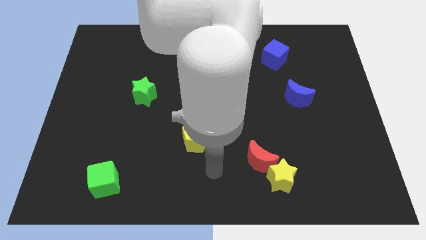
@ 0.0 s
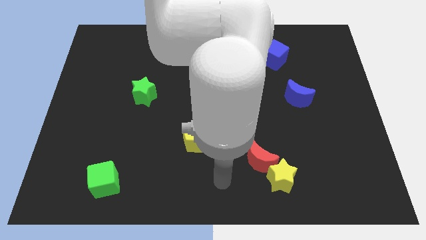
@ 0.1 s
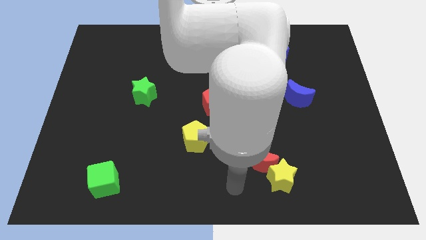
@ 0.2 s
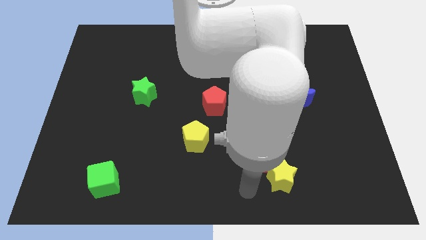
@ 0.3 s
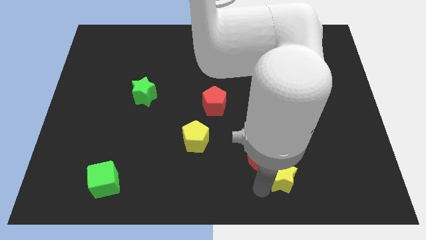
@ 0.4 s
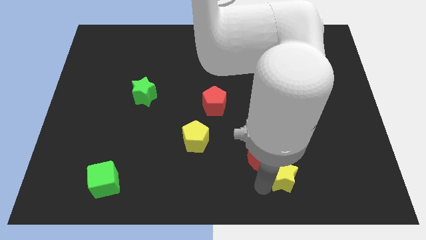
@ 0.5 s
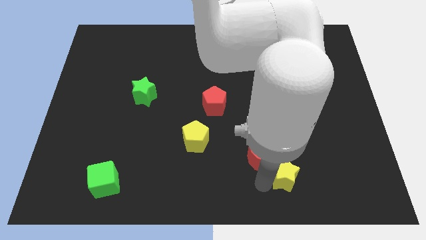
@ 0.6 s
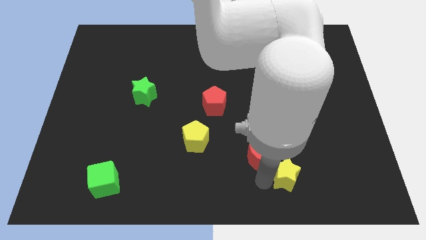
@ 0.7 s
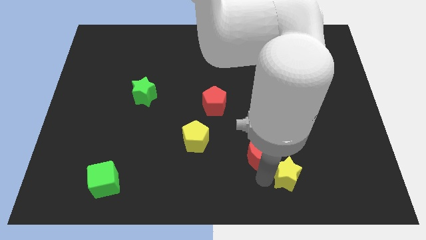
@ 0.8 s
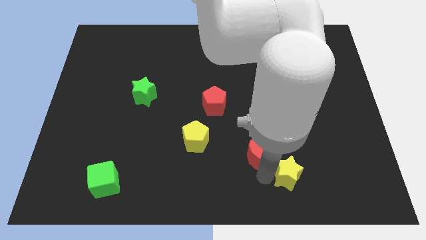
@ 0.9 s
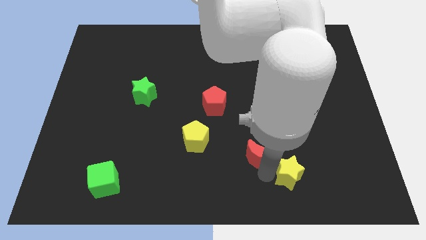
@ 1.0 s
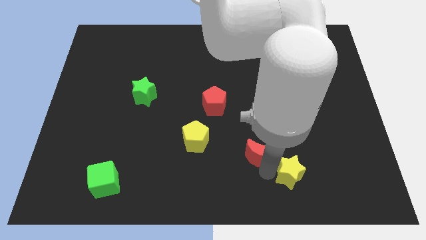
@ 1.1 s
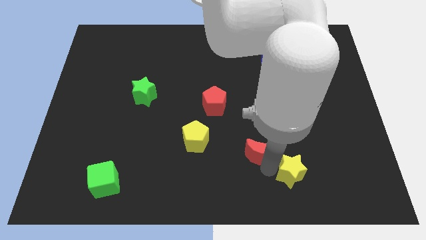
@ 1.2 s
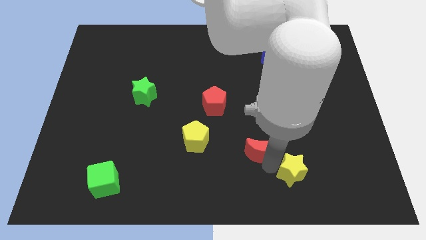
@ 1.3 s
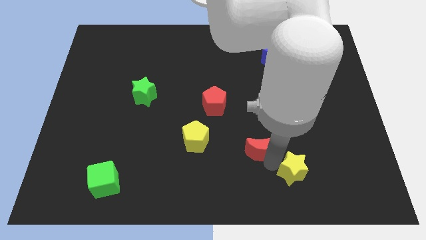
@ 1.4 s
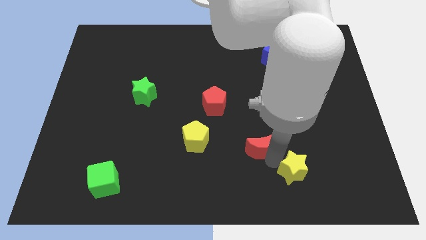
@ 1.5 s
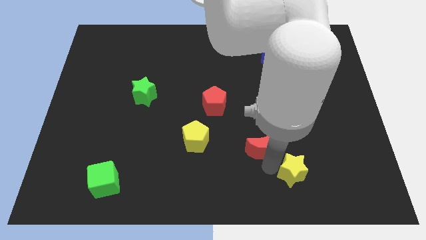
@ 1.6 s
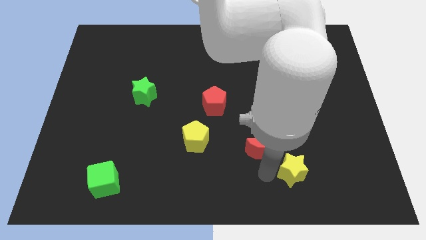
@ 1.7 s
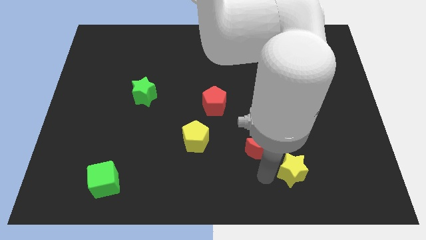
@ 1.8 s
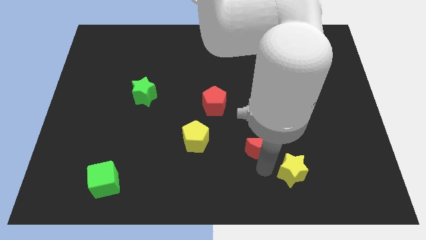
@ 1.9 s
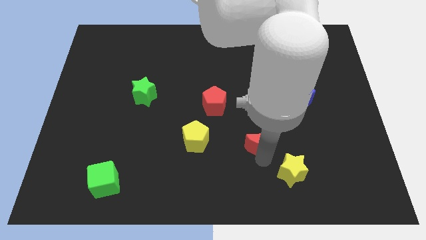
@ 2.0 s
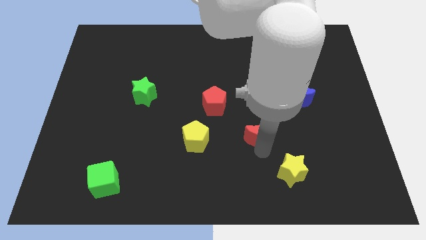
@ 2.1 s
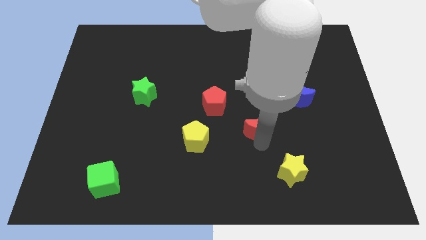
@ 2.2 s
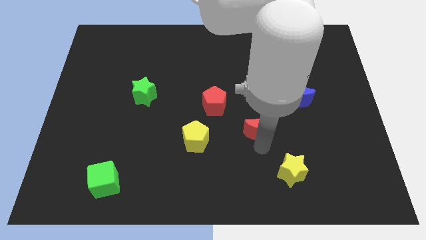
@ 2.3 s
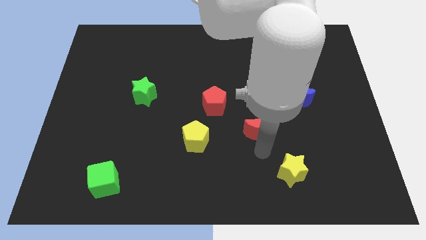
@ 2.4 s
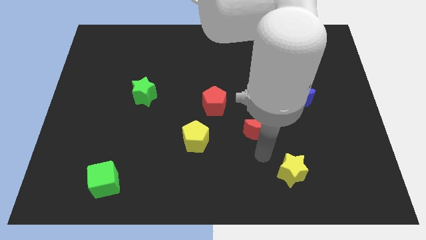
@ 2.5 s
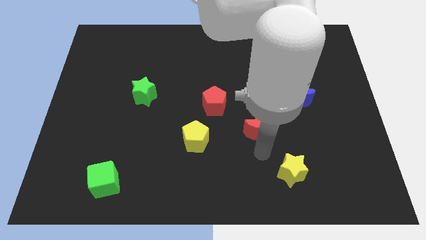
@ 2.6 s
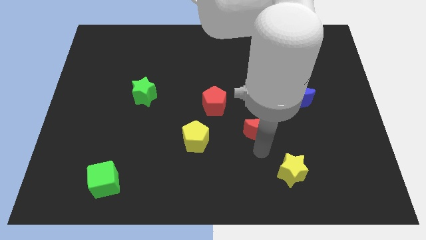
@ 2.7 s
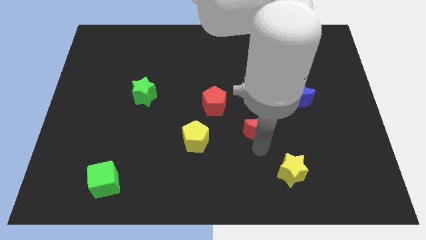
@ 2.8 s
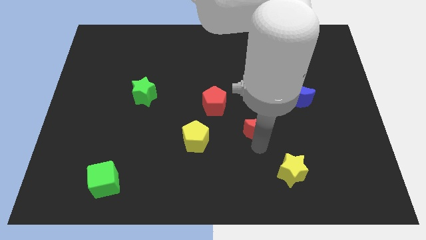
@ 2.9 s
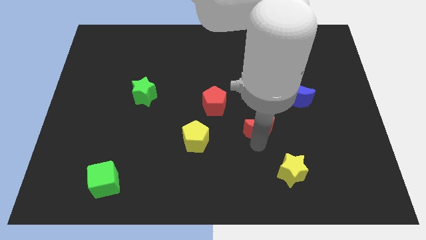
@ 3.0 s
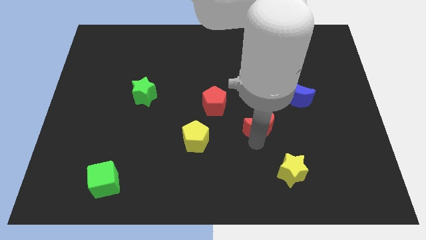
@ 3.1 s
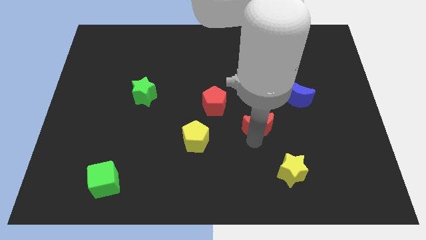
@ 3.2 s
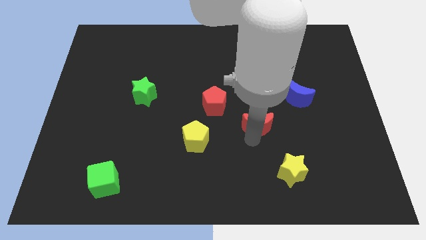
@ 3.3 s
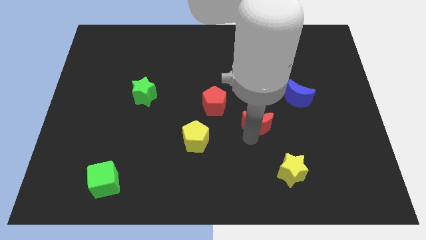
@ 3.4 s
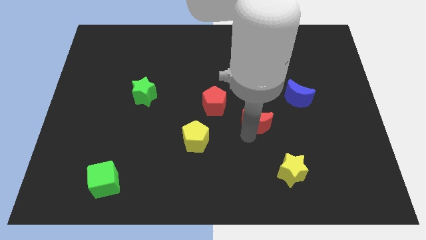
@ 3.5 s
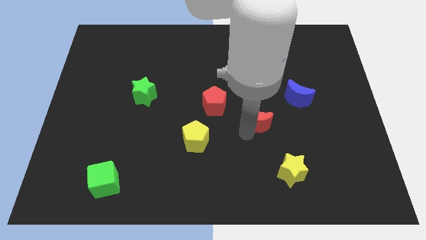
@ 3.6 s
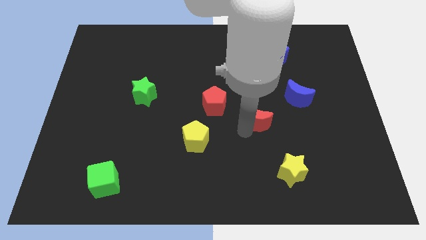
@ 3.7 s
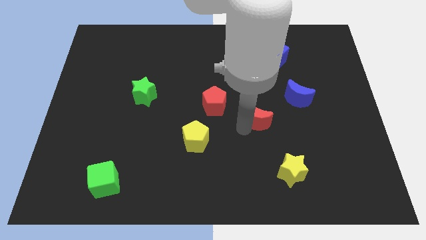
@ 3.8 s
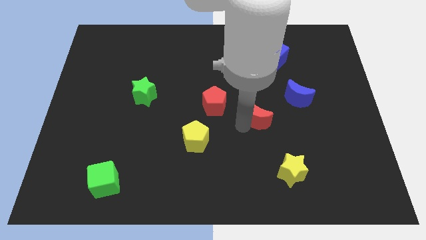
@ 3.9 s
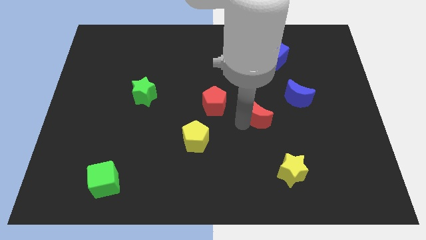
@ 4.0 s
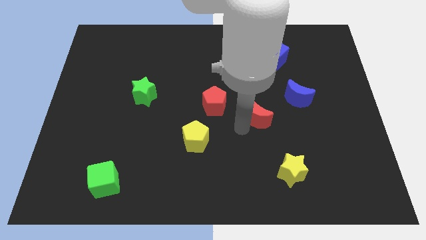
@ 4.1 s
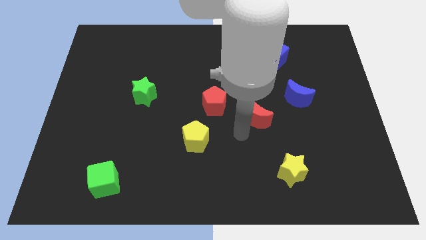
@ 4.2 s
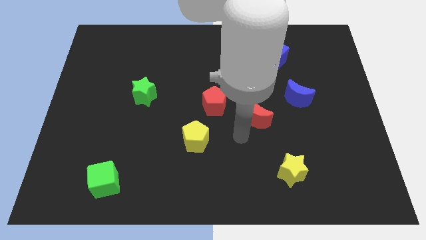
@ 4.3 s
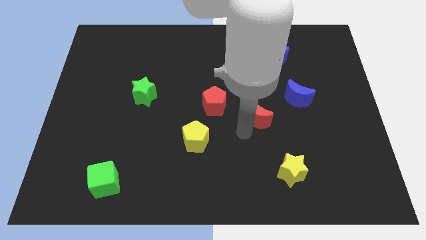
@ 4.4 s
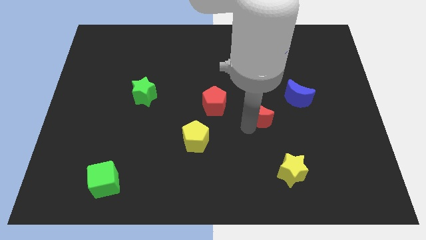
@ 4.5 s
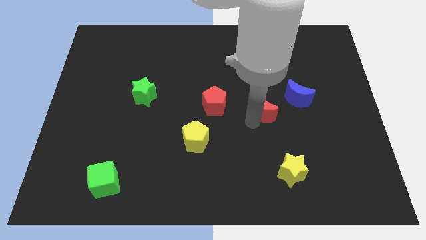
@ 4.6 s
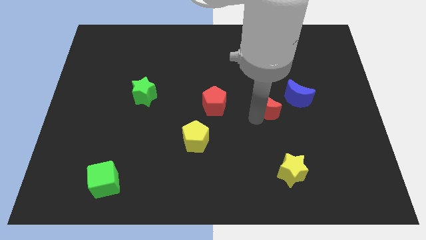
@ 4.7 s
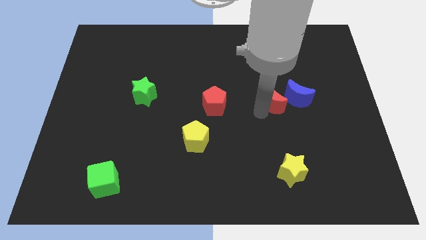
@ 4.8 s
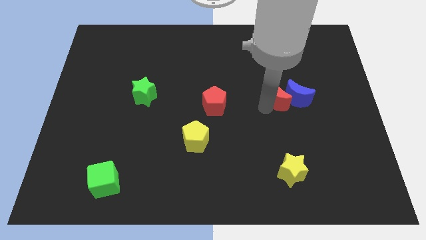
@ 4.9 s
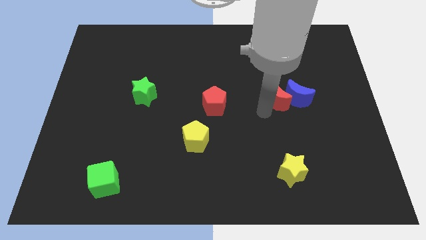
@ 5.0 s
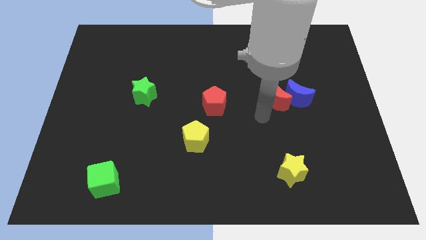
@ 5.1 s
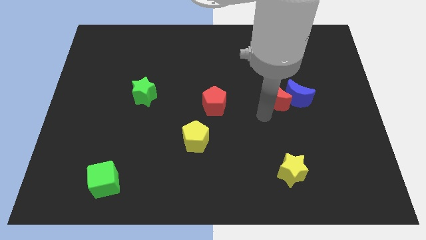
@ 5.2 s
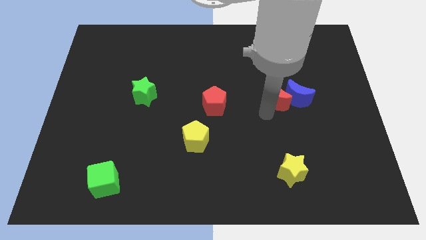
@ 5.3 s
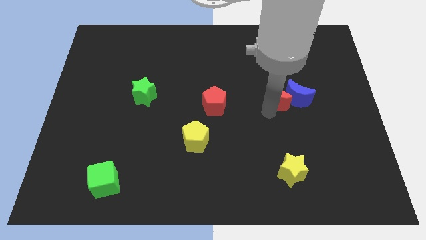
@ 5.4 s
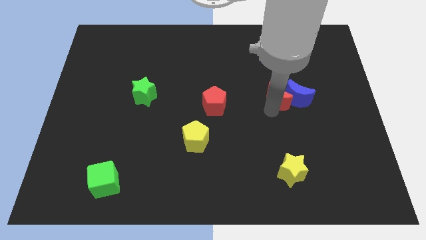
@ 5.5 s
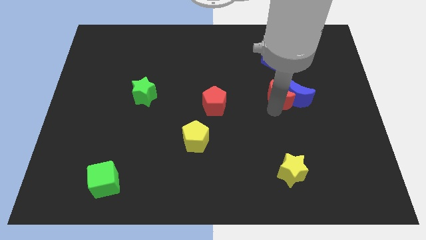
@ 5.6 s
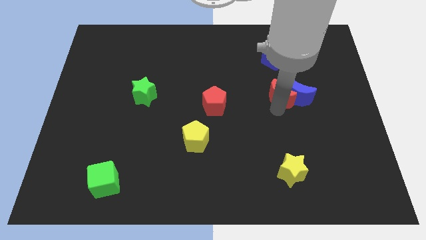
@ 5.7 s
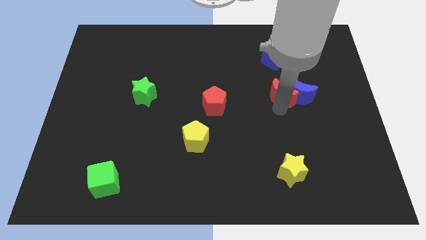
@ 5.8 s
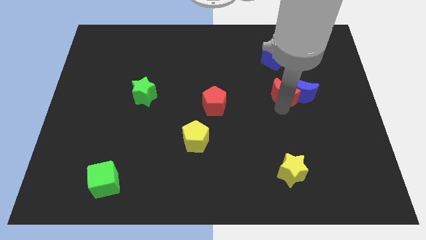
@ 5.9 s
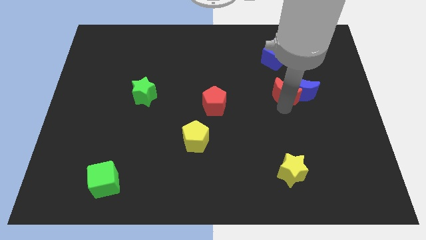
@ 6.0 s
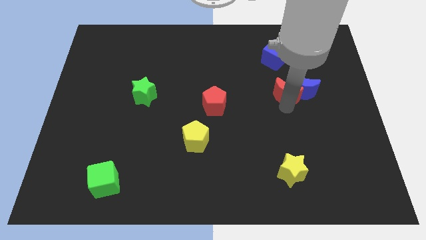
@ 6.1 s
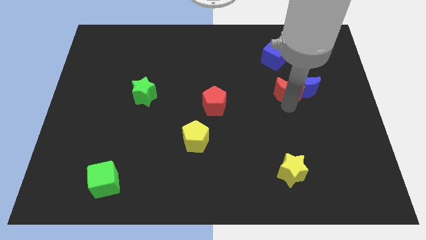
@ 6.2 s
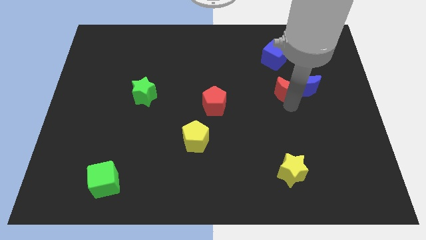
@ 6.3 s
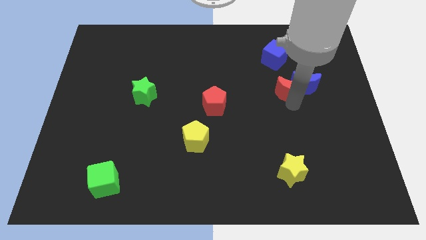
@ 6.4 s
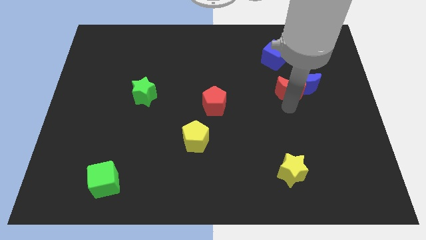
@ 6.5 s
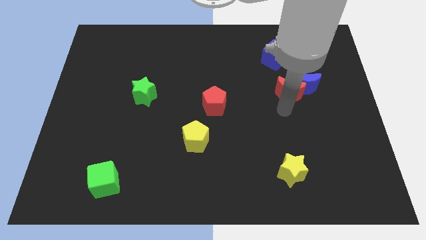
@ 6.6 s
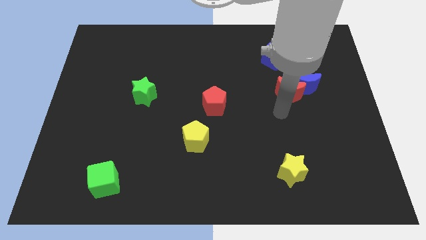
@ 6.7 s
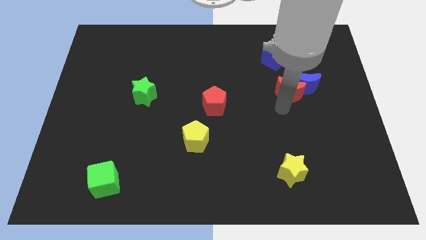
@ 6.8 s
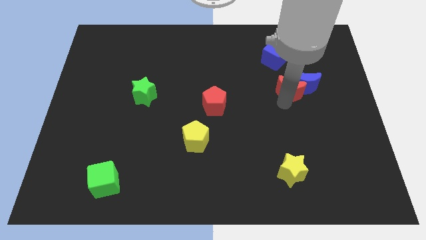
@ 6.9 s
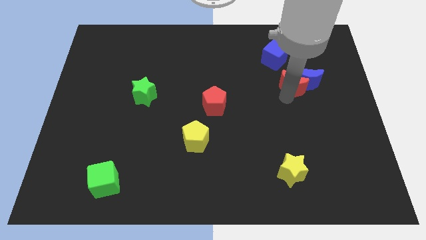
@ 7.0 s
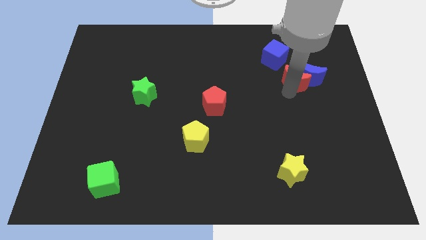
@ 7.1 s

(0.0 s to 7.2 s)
move the red moon diagonally down and to the right of the blue cube

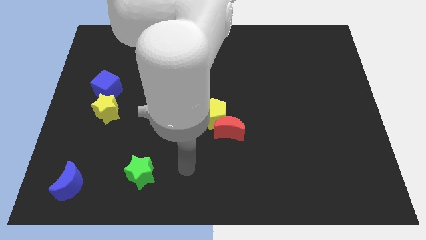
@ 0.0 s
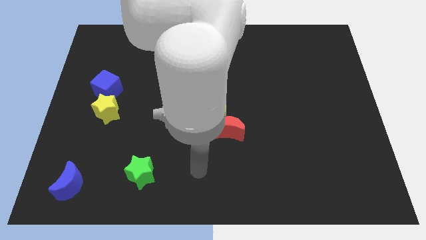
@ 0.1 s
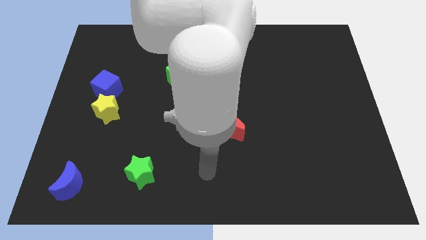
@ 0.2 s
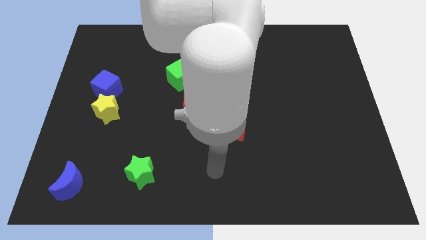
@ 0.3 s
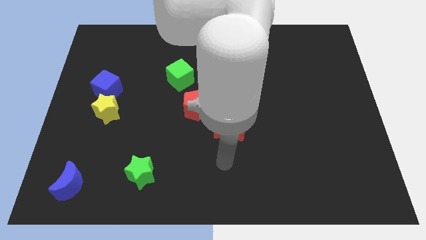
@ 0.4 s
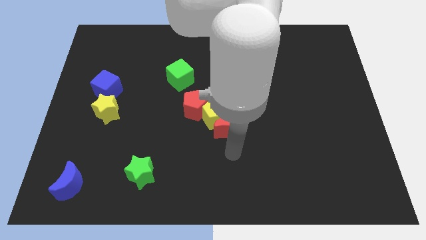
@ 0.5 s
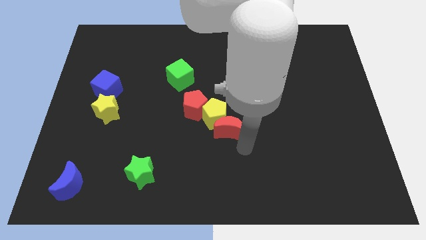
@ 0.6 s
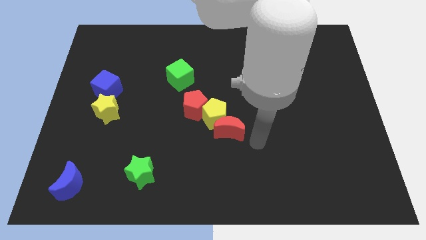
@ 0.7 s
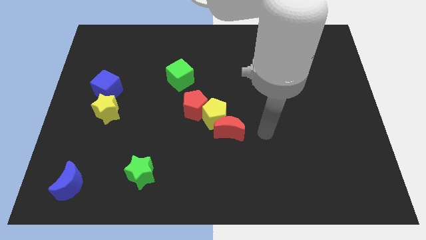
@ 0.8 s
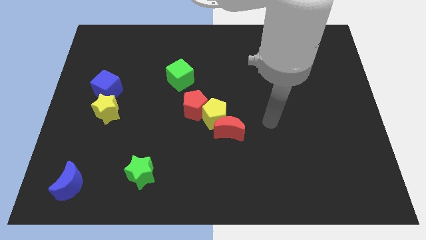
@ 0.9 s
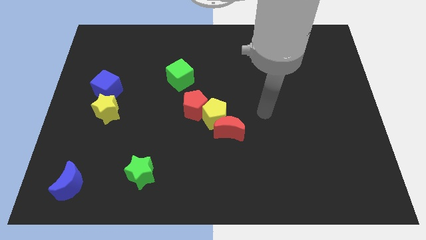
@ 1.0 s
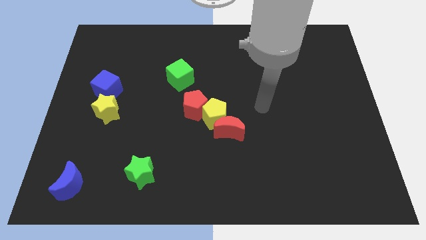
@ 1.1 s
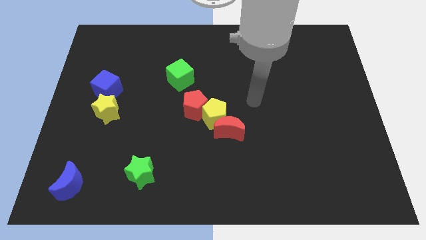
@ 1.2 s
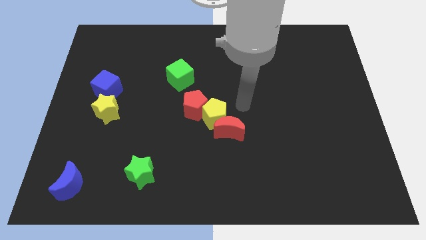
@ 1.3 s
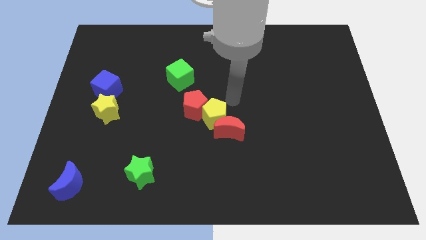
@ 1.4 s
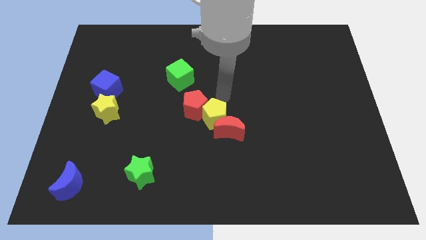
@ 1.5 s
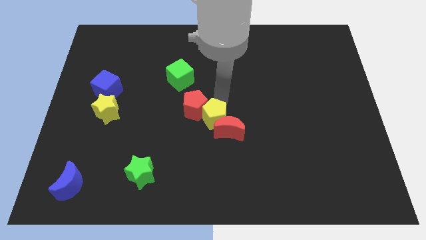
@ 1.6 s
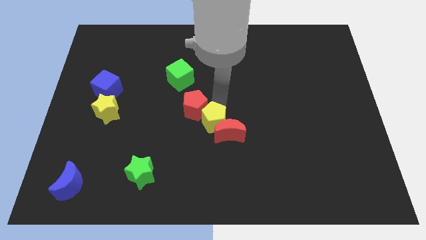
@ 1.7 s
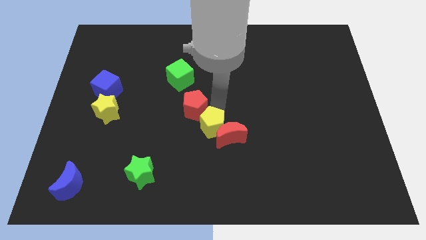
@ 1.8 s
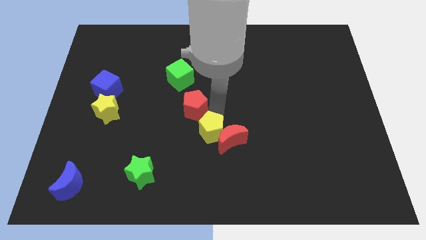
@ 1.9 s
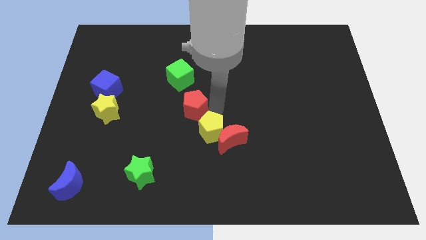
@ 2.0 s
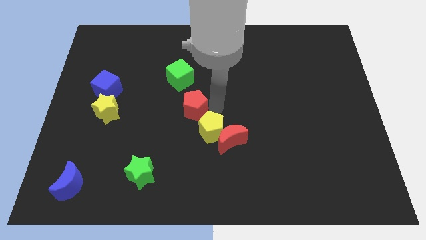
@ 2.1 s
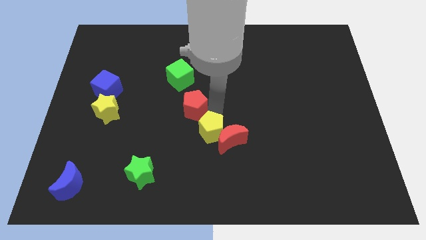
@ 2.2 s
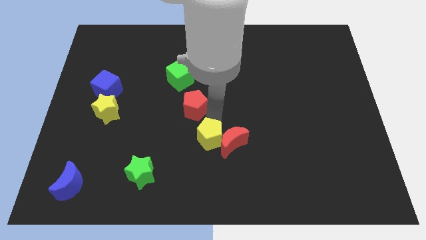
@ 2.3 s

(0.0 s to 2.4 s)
push the yellow pentagon to the bottom left side of the red moon
